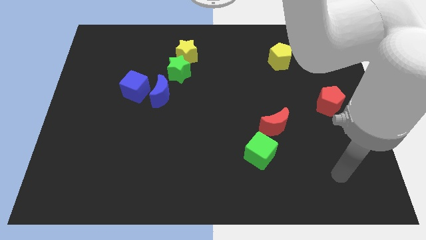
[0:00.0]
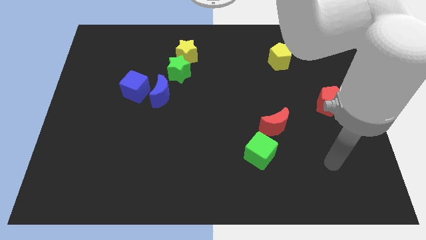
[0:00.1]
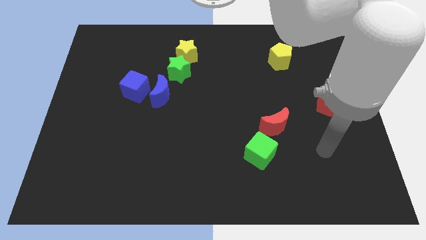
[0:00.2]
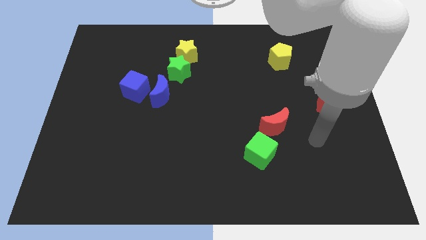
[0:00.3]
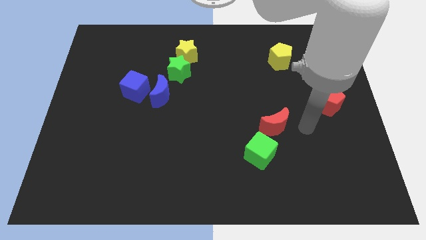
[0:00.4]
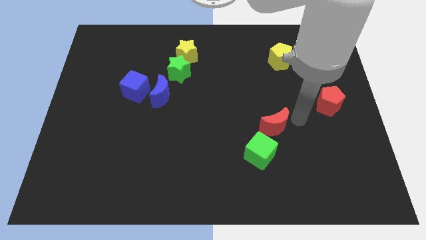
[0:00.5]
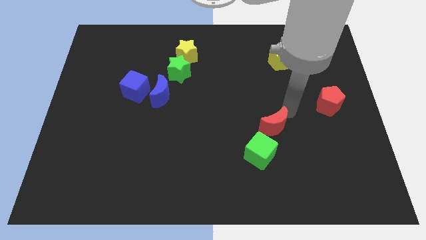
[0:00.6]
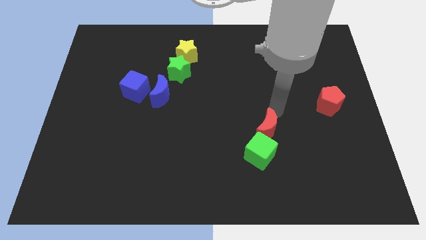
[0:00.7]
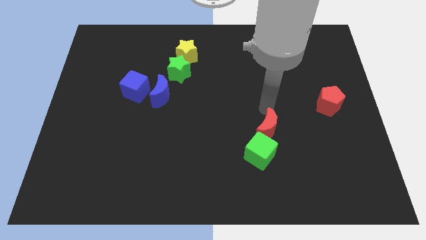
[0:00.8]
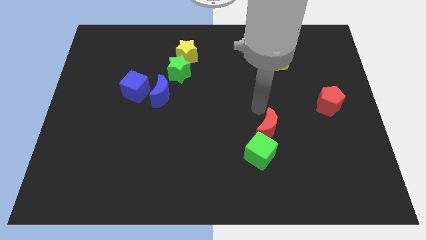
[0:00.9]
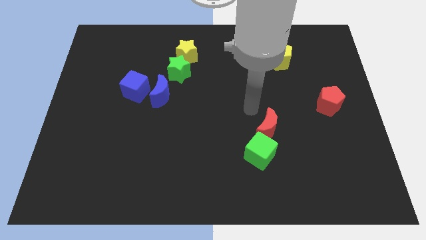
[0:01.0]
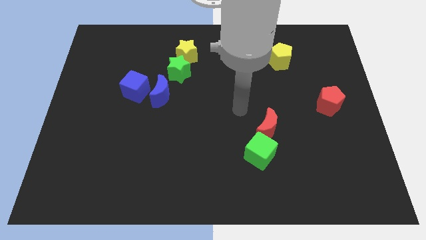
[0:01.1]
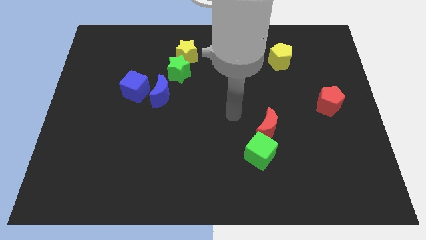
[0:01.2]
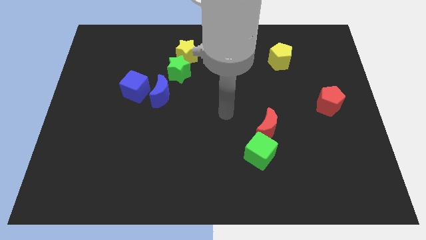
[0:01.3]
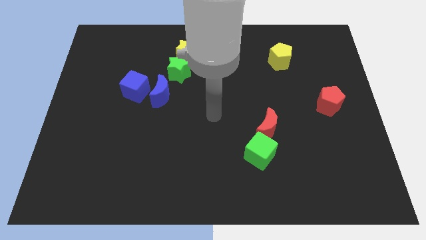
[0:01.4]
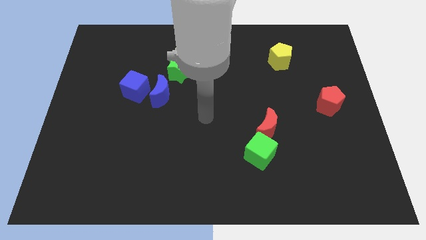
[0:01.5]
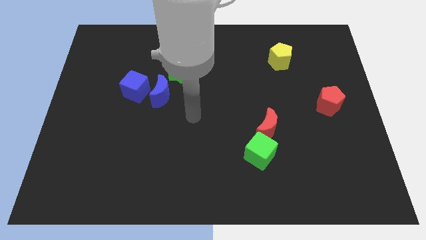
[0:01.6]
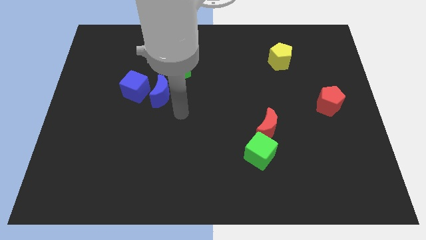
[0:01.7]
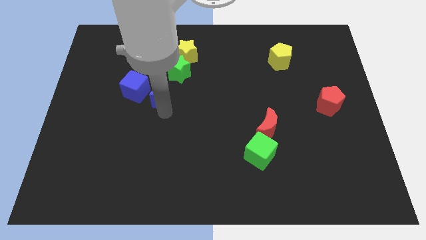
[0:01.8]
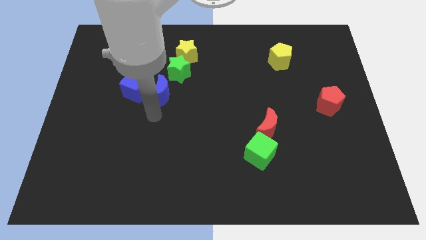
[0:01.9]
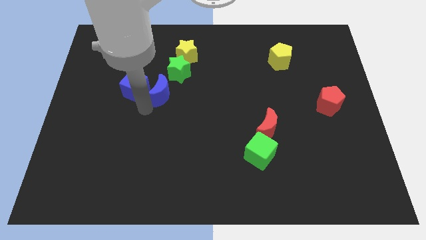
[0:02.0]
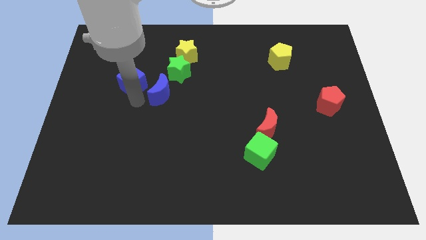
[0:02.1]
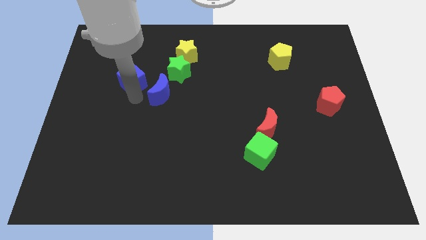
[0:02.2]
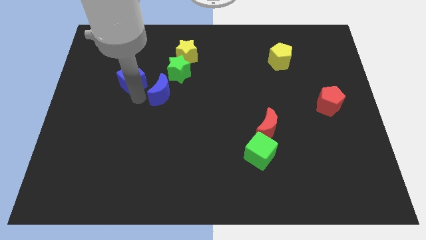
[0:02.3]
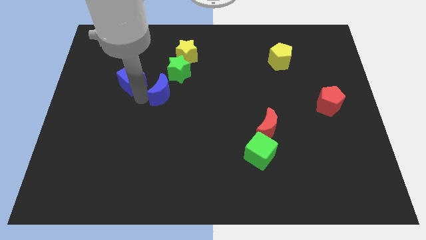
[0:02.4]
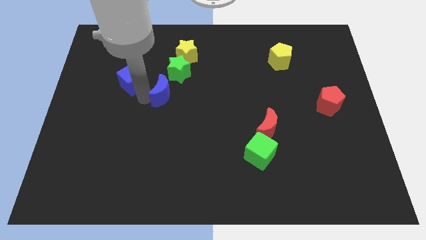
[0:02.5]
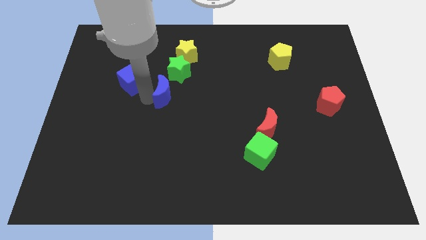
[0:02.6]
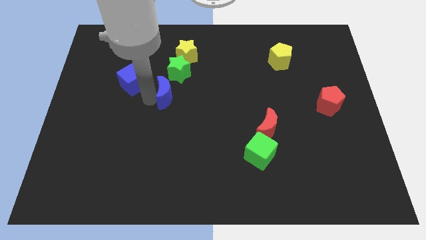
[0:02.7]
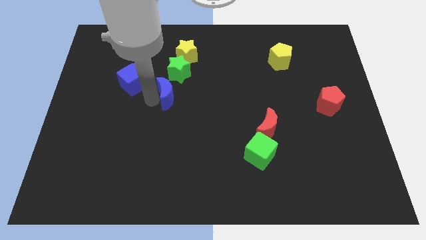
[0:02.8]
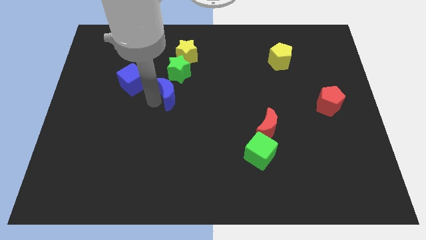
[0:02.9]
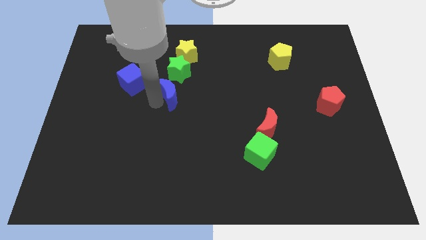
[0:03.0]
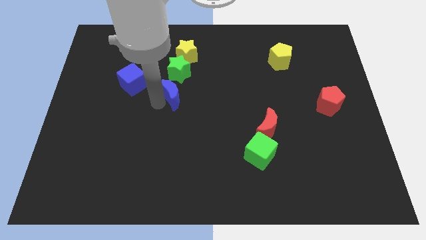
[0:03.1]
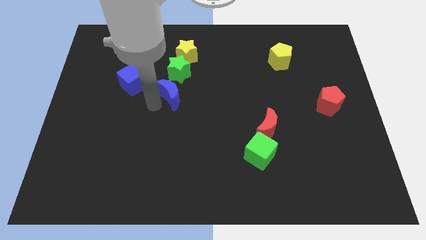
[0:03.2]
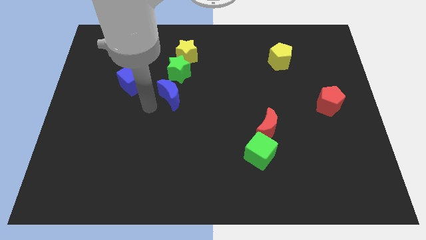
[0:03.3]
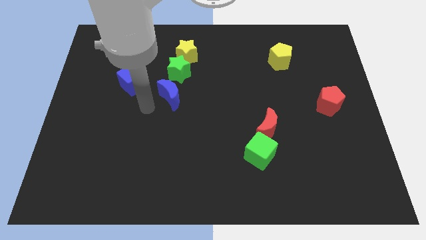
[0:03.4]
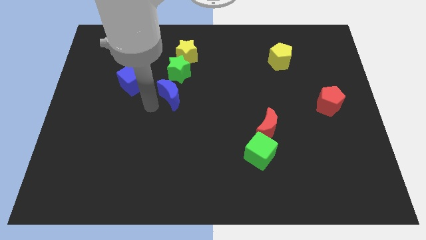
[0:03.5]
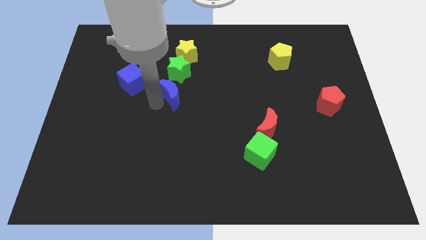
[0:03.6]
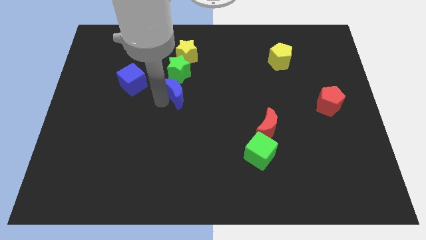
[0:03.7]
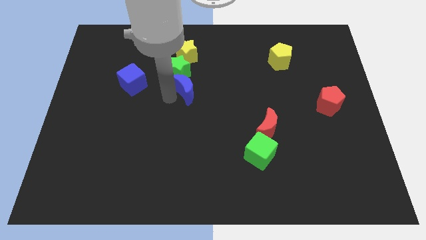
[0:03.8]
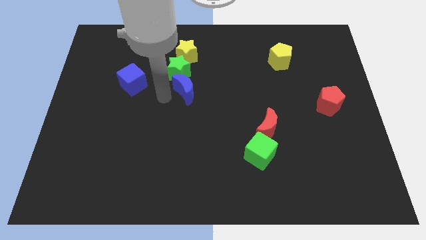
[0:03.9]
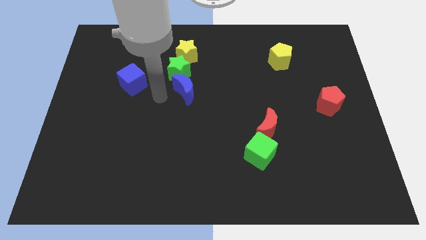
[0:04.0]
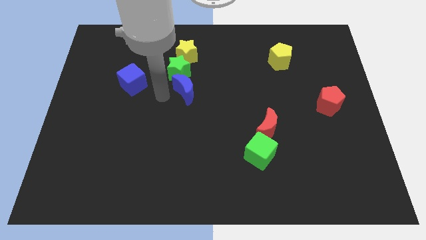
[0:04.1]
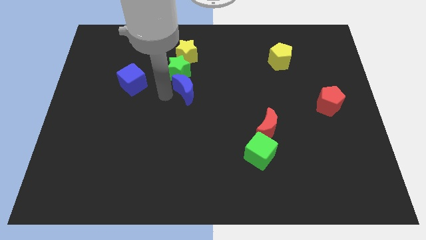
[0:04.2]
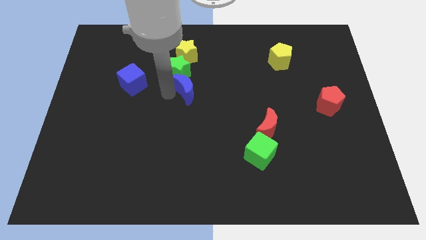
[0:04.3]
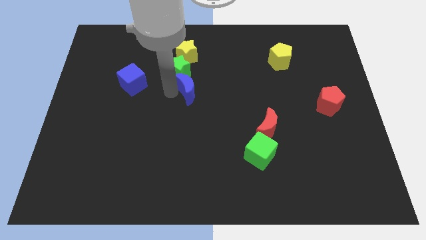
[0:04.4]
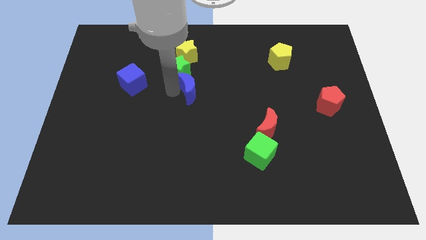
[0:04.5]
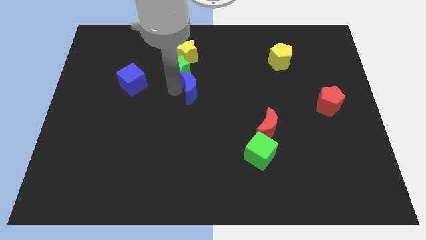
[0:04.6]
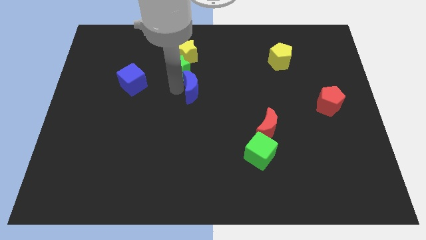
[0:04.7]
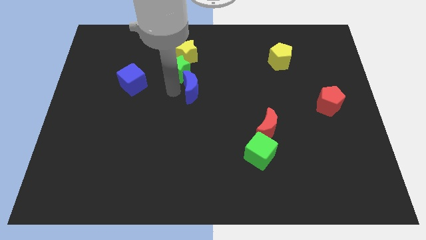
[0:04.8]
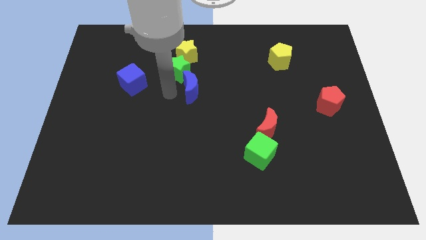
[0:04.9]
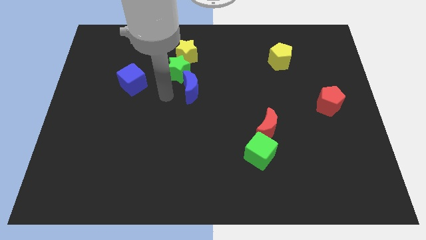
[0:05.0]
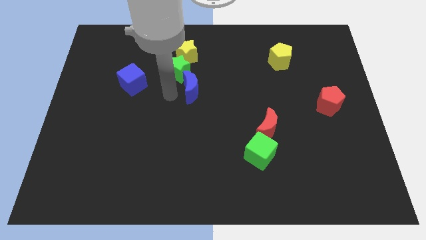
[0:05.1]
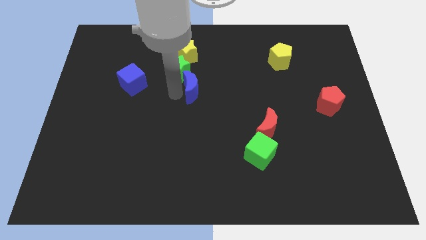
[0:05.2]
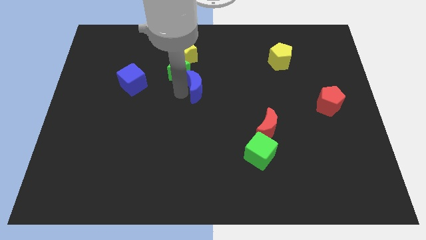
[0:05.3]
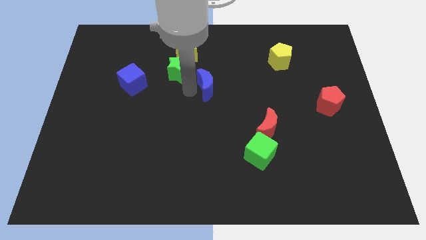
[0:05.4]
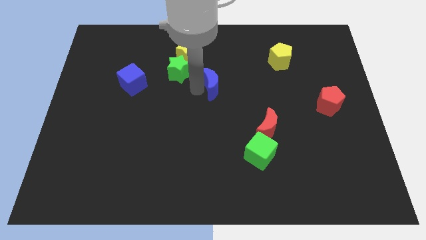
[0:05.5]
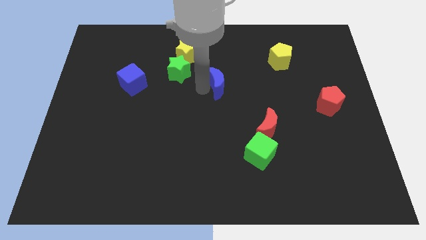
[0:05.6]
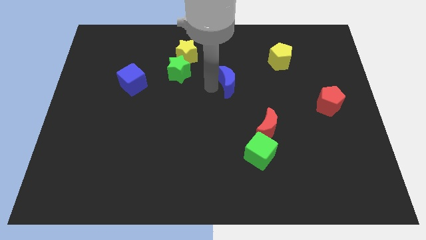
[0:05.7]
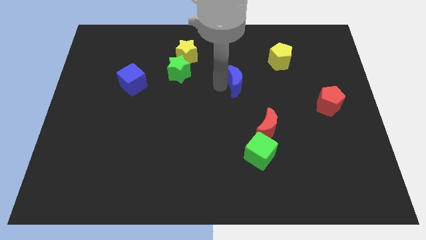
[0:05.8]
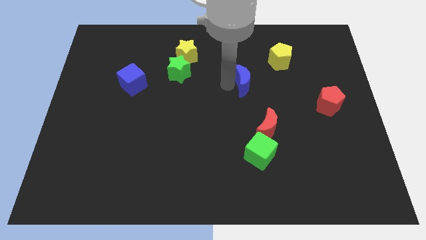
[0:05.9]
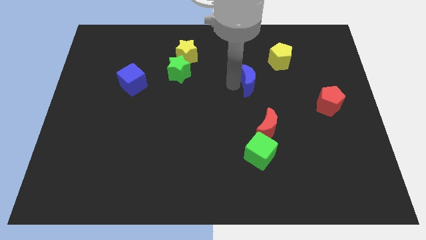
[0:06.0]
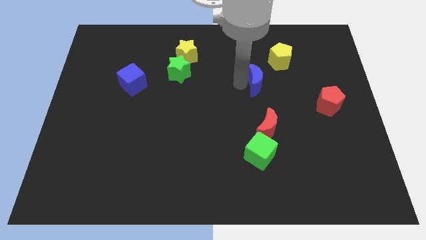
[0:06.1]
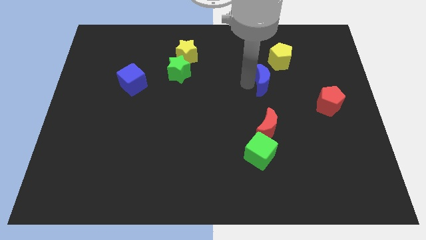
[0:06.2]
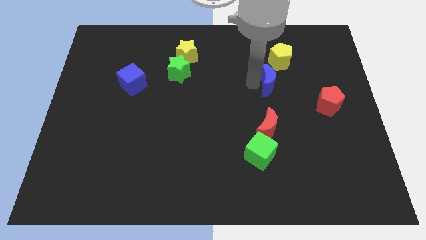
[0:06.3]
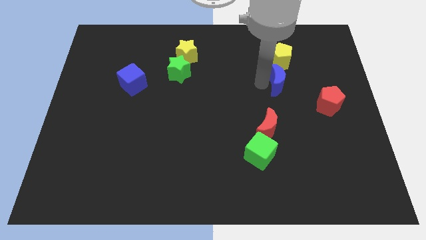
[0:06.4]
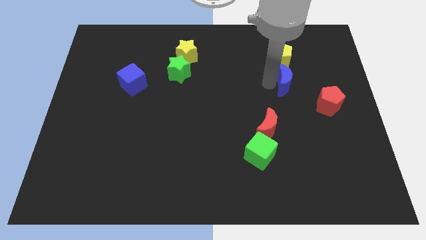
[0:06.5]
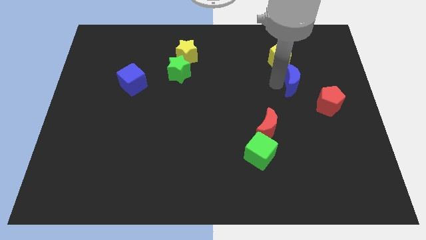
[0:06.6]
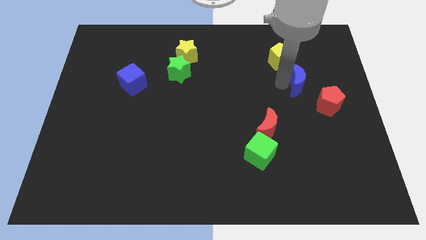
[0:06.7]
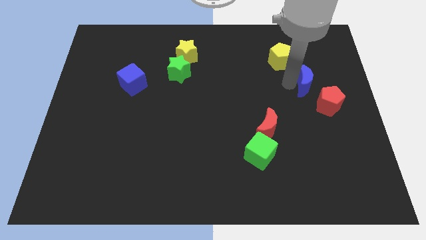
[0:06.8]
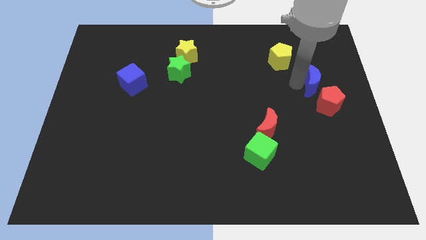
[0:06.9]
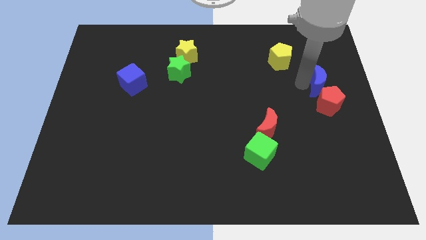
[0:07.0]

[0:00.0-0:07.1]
slide the blue moon to the right side of the board
